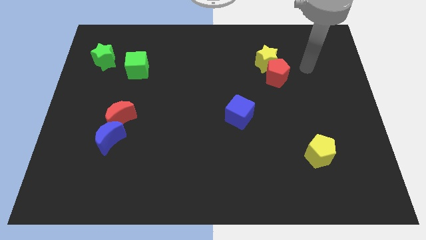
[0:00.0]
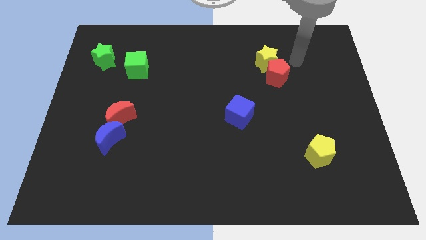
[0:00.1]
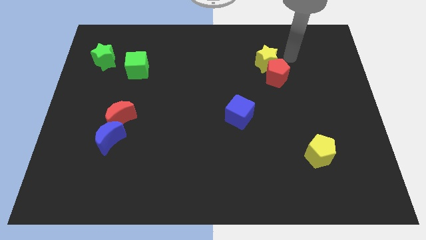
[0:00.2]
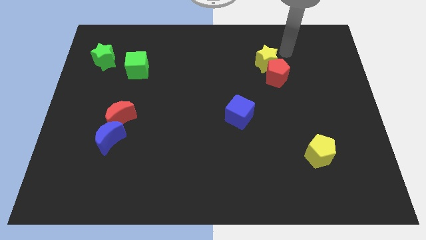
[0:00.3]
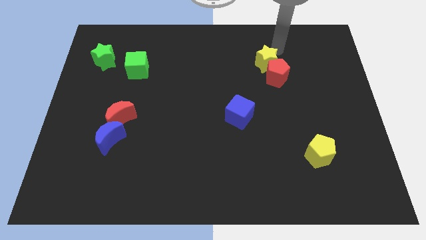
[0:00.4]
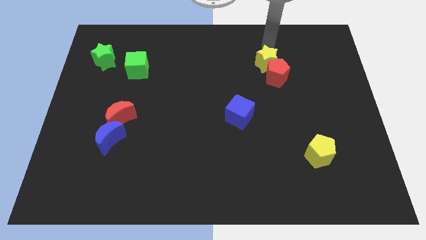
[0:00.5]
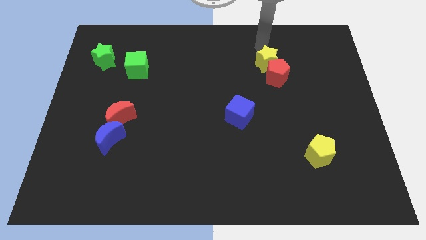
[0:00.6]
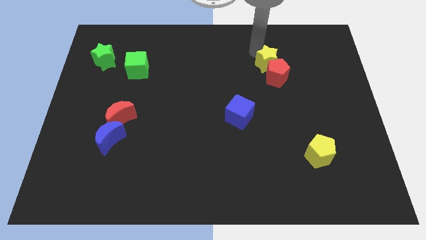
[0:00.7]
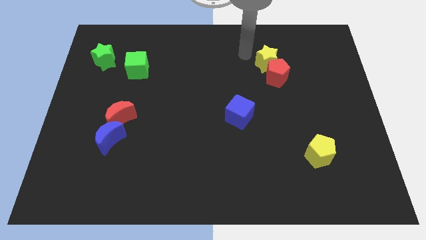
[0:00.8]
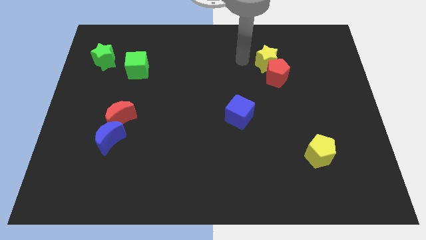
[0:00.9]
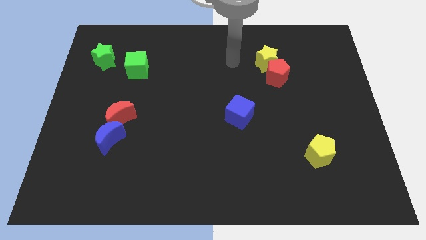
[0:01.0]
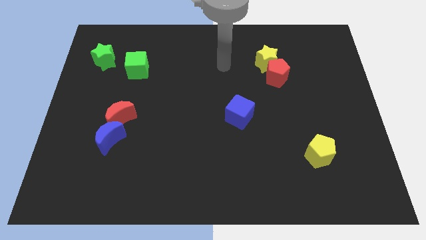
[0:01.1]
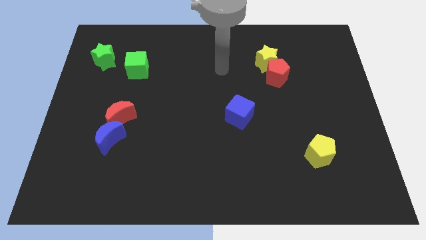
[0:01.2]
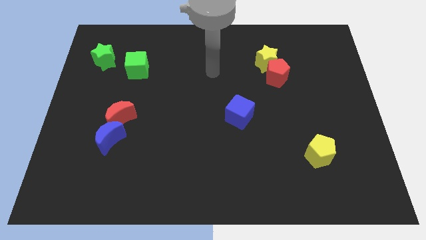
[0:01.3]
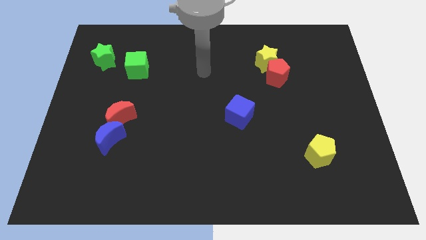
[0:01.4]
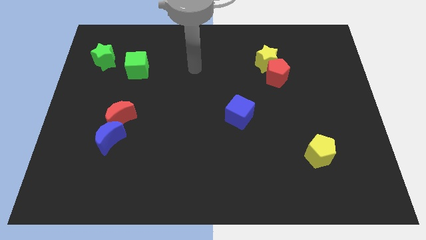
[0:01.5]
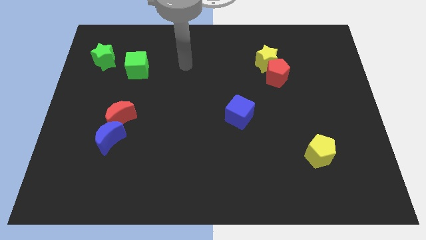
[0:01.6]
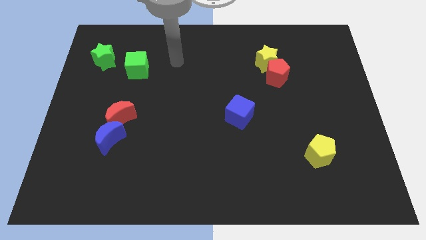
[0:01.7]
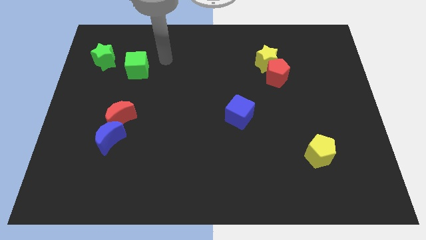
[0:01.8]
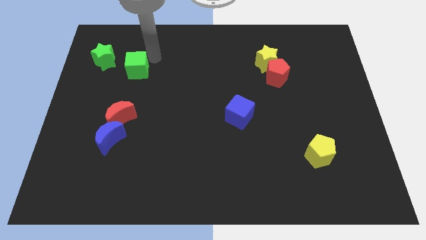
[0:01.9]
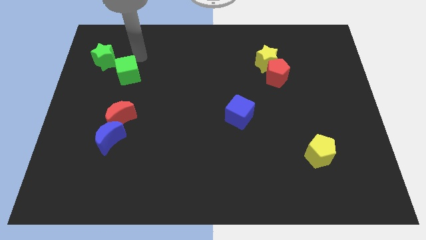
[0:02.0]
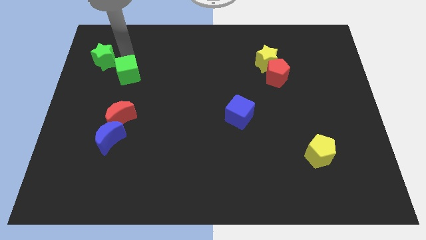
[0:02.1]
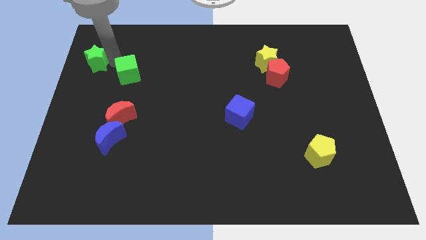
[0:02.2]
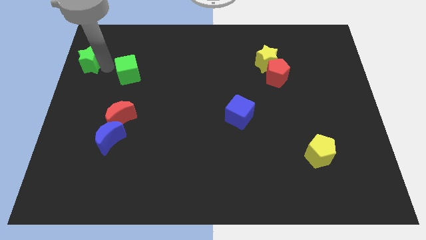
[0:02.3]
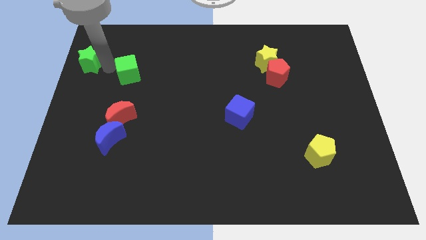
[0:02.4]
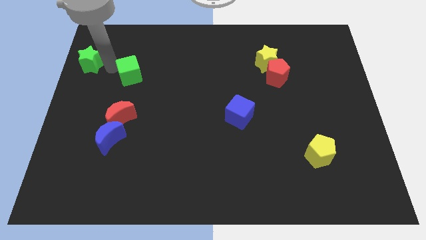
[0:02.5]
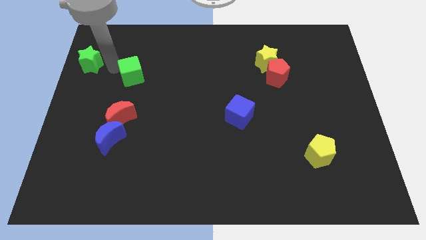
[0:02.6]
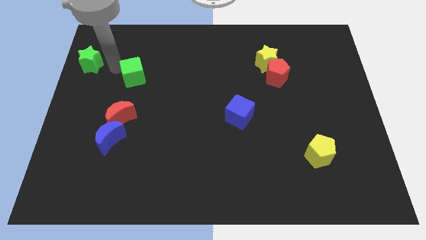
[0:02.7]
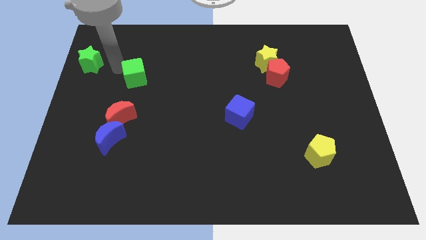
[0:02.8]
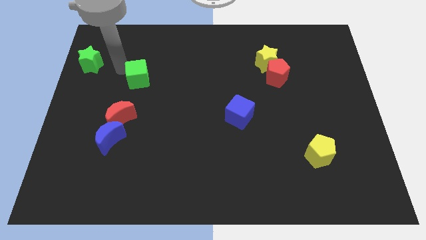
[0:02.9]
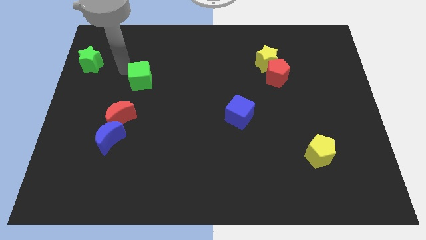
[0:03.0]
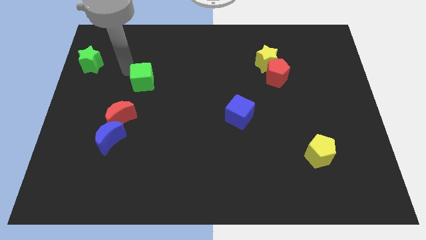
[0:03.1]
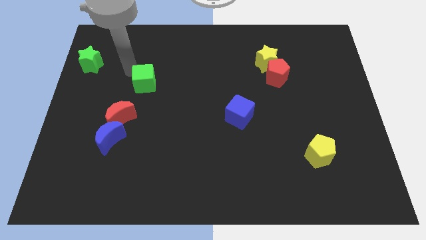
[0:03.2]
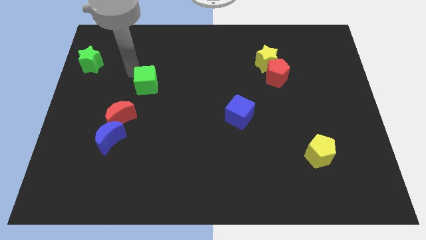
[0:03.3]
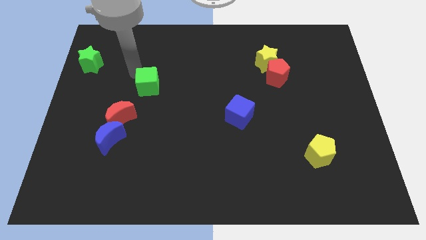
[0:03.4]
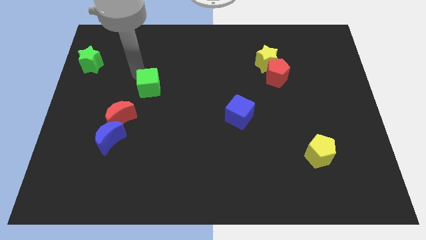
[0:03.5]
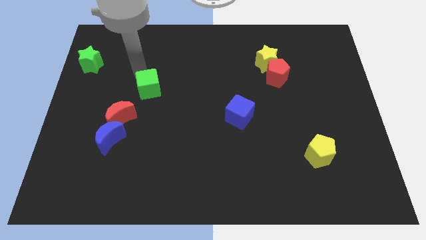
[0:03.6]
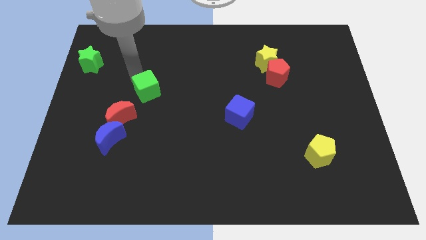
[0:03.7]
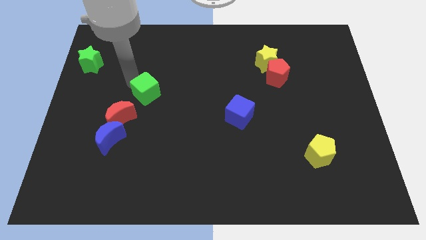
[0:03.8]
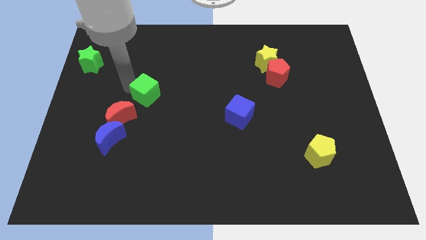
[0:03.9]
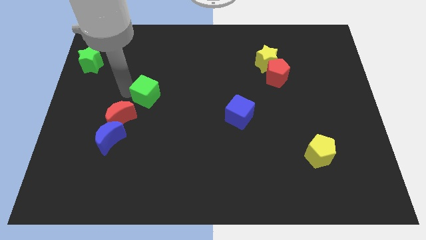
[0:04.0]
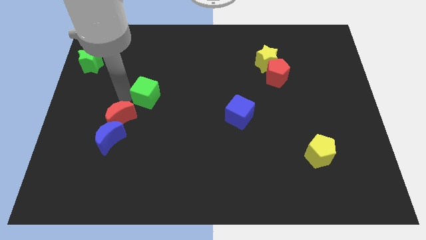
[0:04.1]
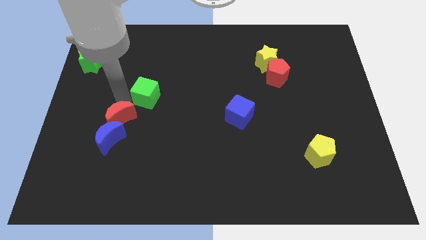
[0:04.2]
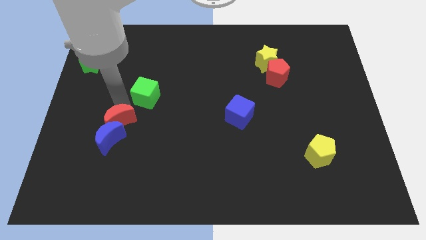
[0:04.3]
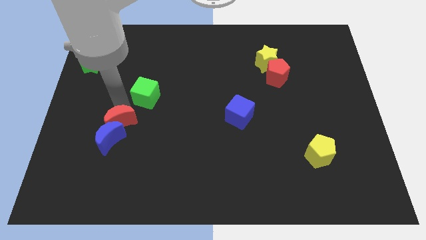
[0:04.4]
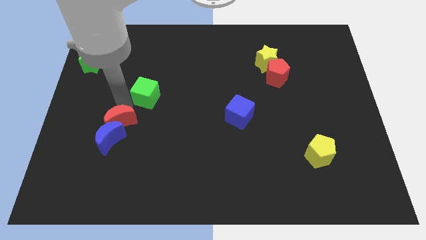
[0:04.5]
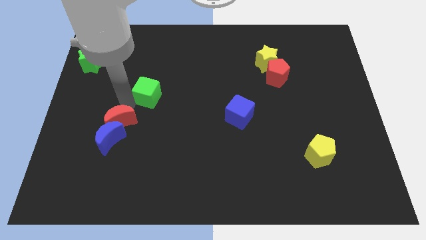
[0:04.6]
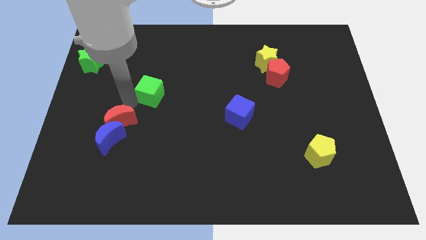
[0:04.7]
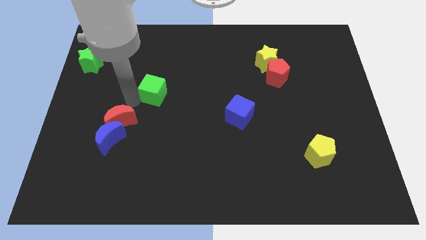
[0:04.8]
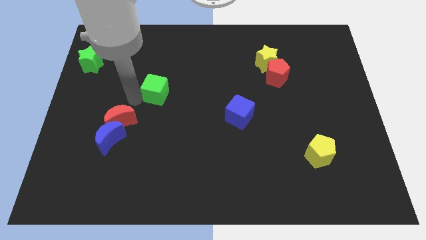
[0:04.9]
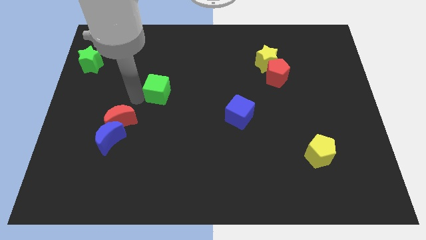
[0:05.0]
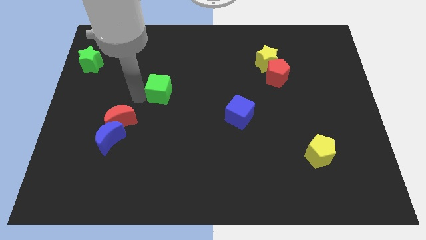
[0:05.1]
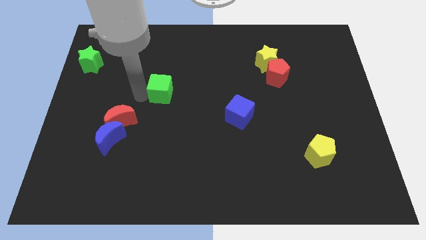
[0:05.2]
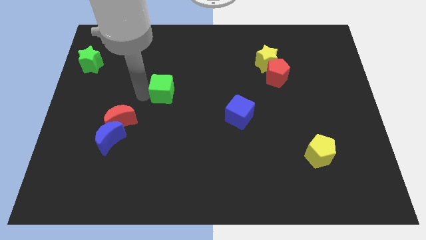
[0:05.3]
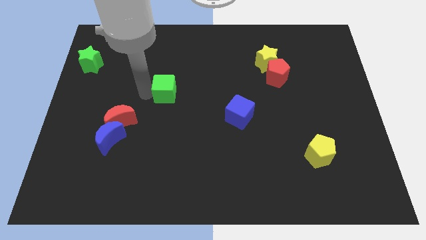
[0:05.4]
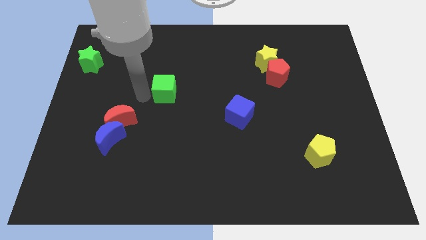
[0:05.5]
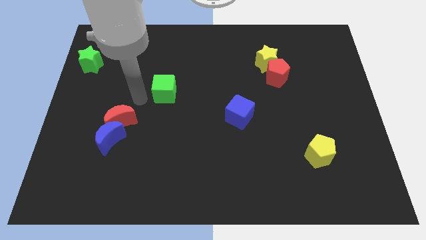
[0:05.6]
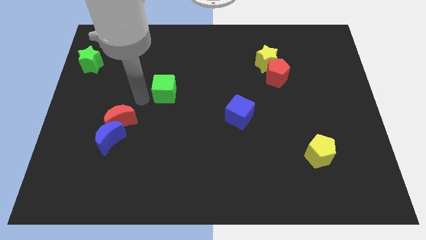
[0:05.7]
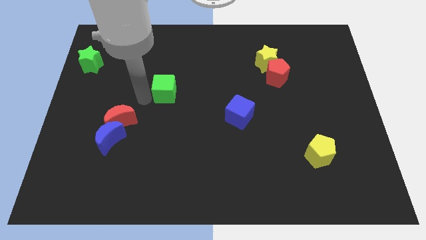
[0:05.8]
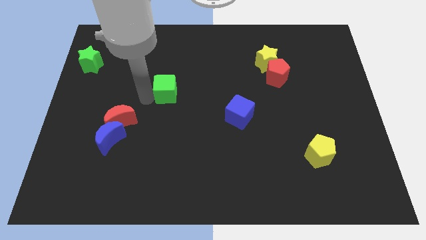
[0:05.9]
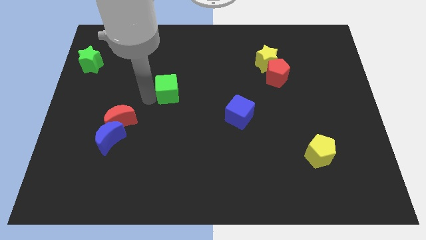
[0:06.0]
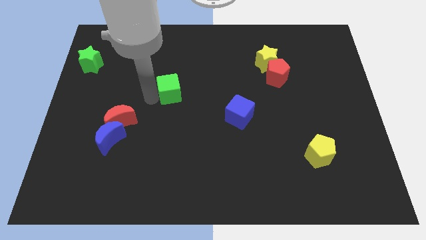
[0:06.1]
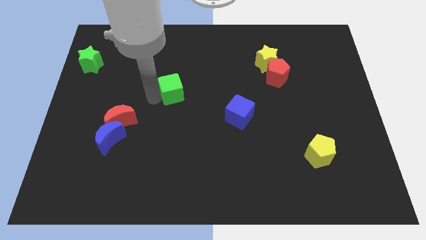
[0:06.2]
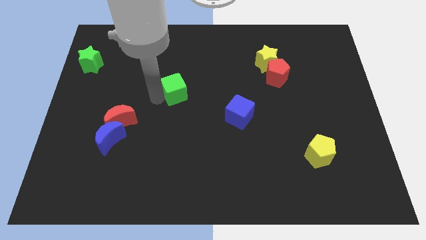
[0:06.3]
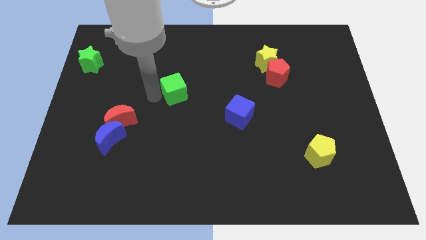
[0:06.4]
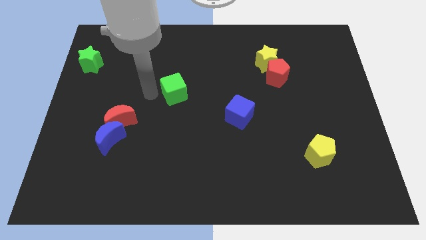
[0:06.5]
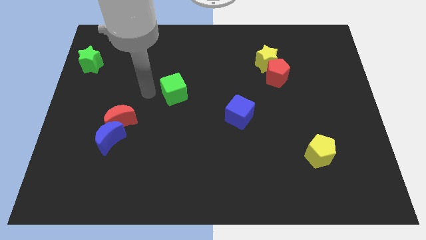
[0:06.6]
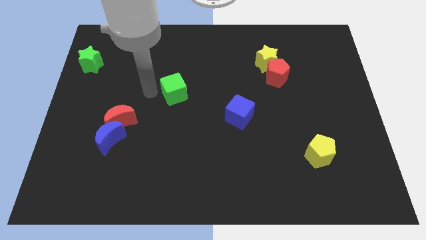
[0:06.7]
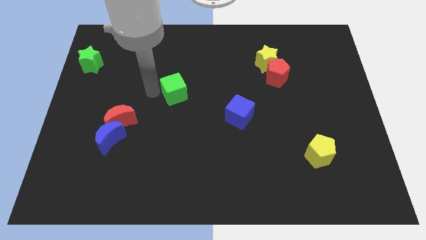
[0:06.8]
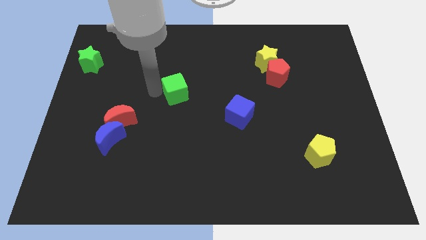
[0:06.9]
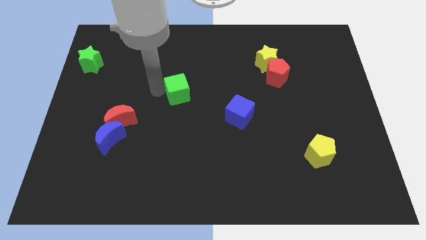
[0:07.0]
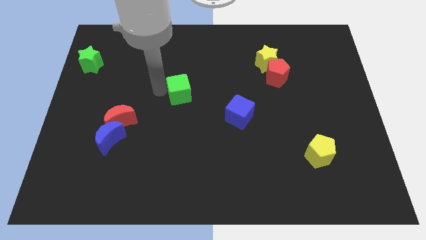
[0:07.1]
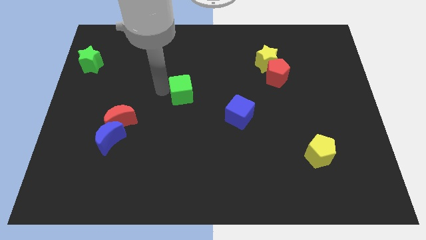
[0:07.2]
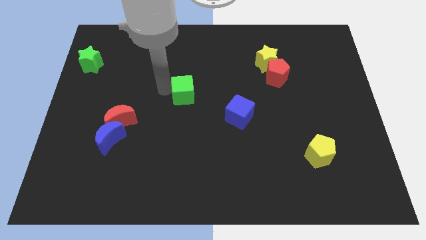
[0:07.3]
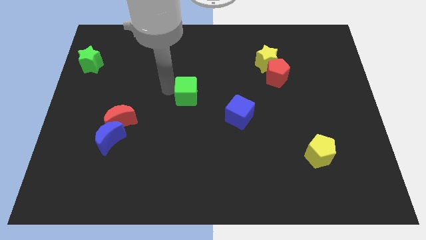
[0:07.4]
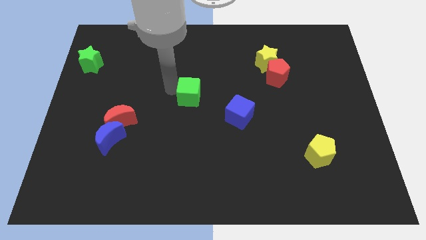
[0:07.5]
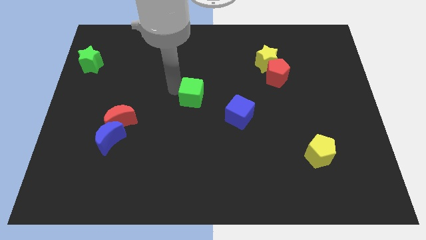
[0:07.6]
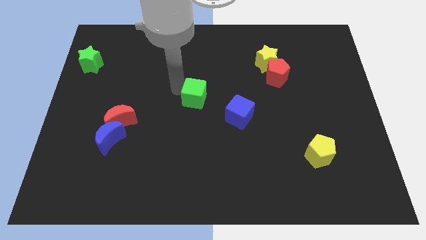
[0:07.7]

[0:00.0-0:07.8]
push the green cube to the top left of the blue cube

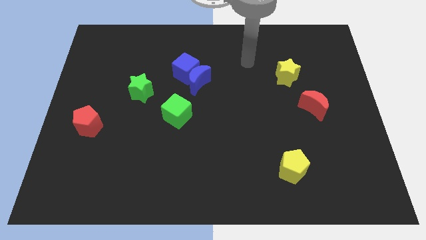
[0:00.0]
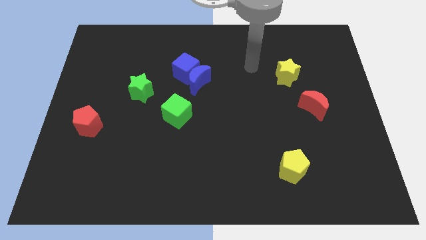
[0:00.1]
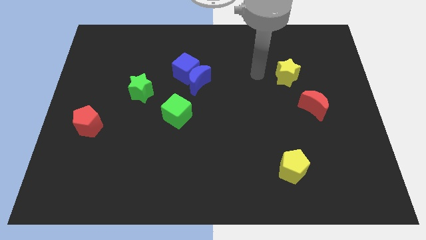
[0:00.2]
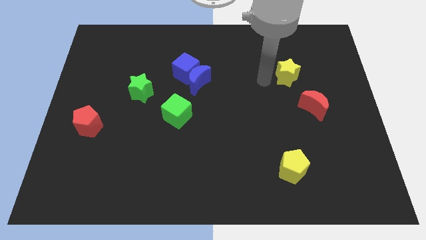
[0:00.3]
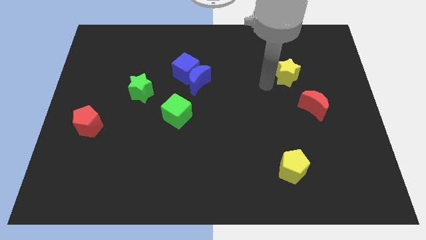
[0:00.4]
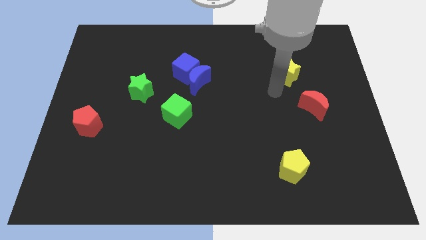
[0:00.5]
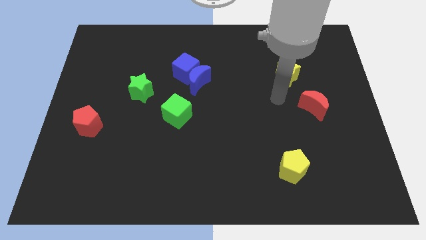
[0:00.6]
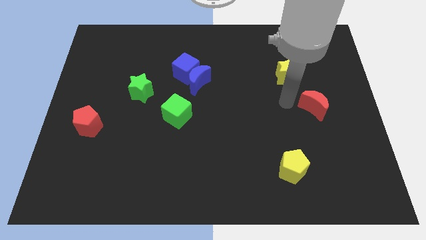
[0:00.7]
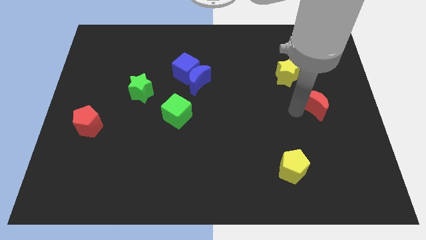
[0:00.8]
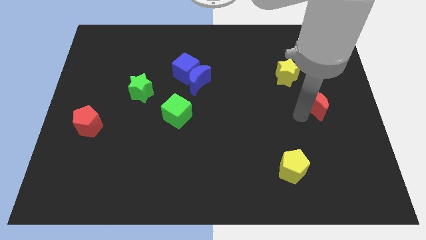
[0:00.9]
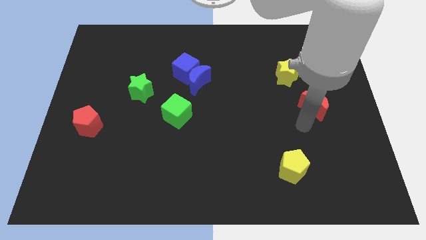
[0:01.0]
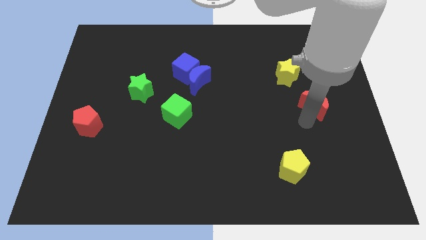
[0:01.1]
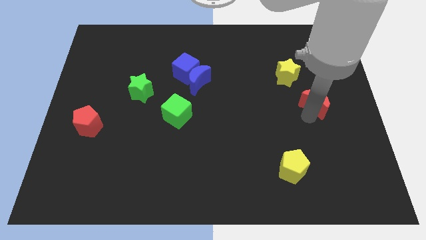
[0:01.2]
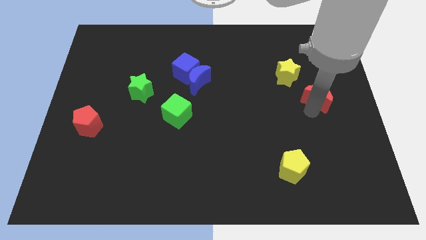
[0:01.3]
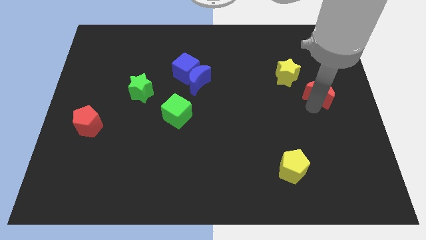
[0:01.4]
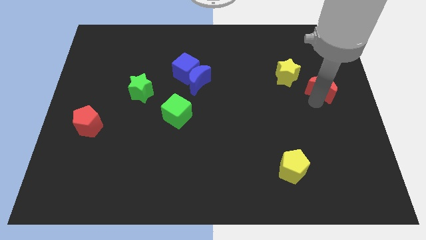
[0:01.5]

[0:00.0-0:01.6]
move the red moon right of the yellow star
